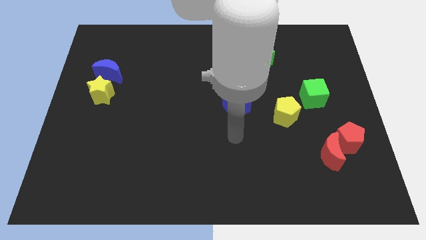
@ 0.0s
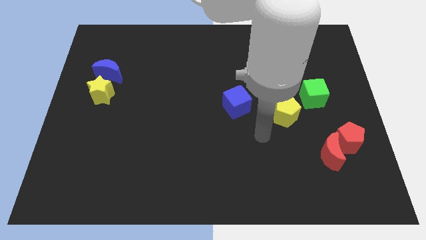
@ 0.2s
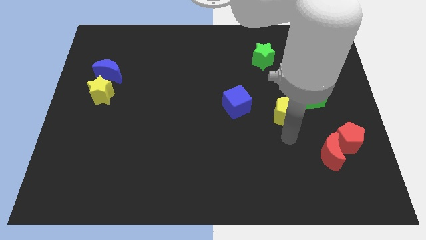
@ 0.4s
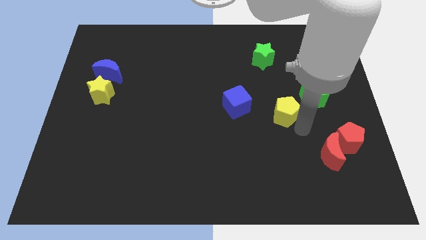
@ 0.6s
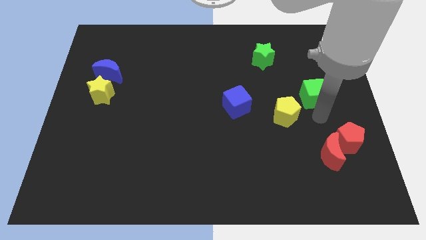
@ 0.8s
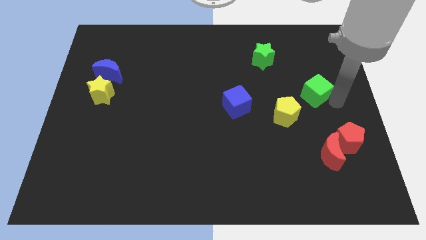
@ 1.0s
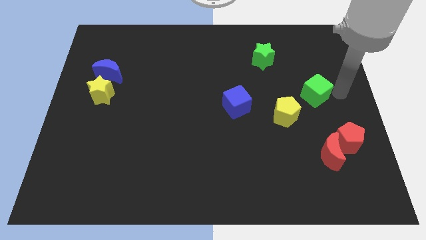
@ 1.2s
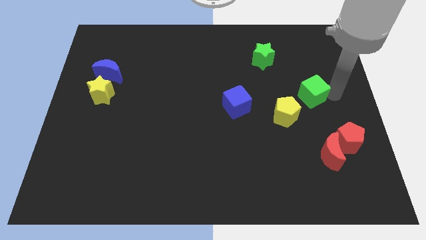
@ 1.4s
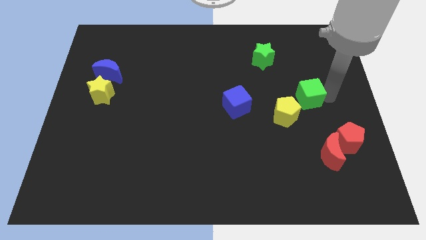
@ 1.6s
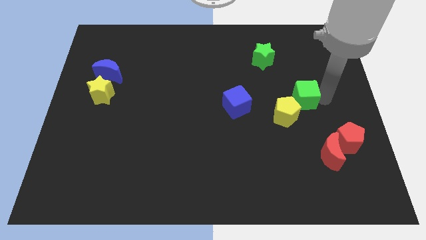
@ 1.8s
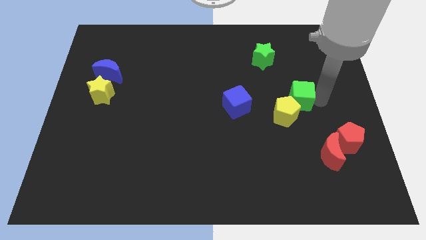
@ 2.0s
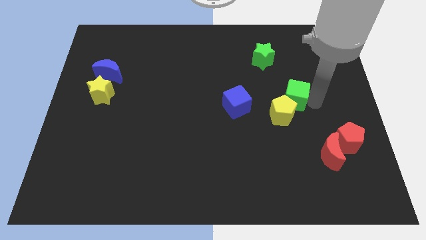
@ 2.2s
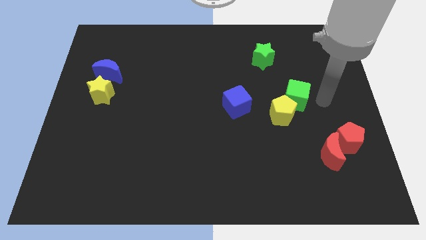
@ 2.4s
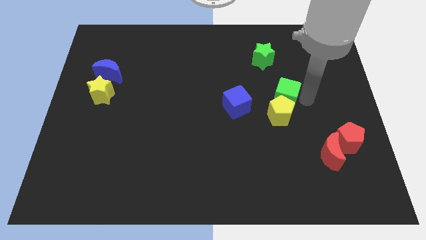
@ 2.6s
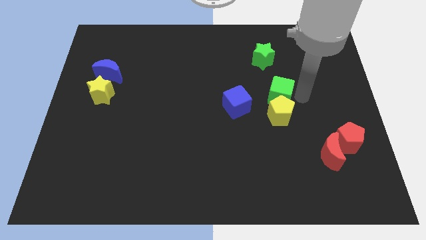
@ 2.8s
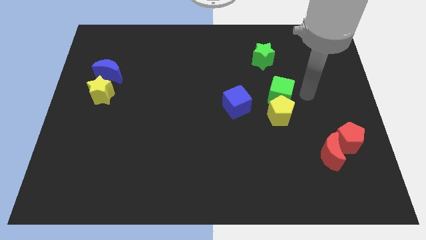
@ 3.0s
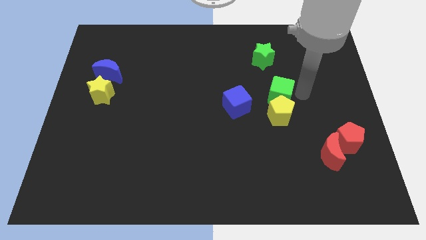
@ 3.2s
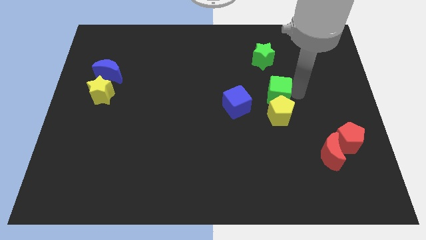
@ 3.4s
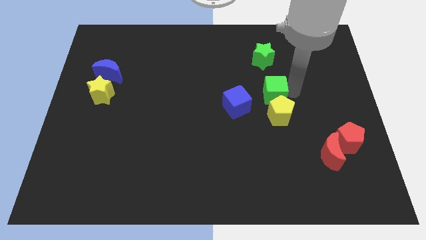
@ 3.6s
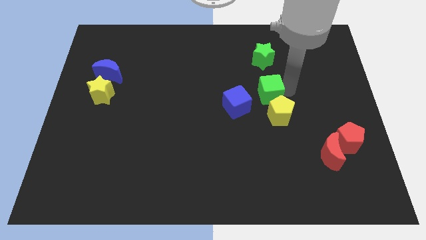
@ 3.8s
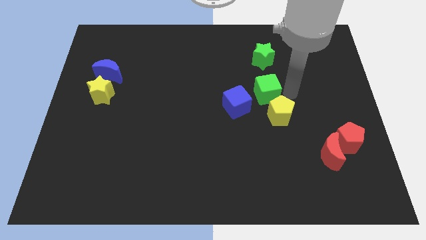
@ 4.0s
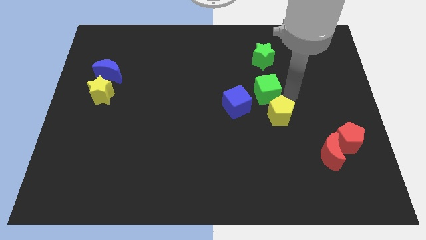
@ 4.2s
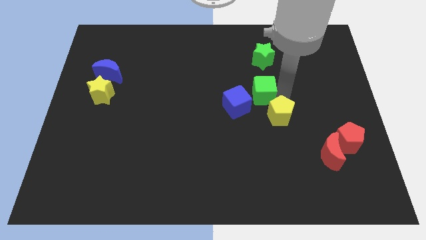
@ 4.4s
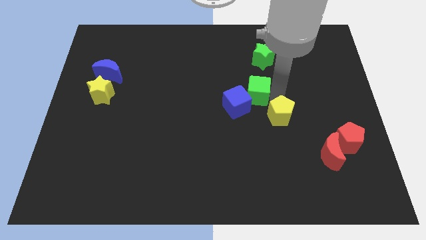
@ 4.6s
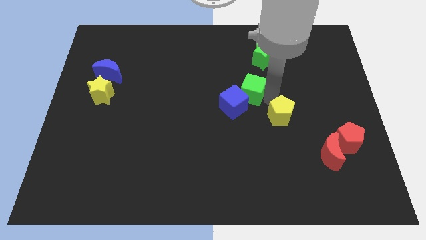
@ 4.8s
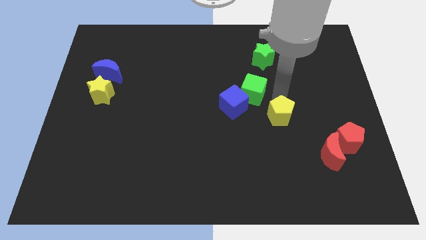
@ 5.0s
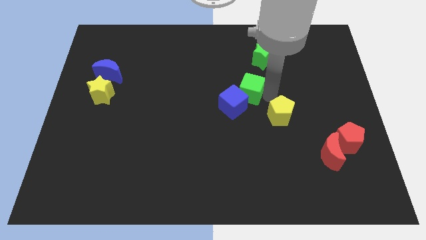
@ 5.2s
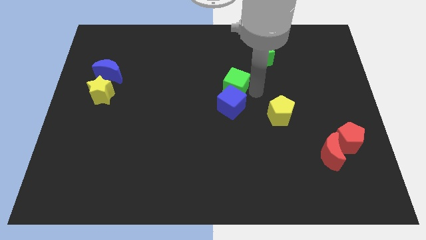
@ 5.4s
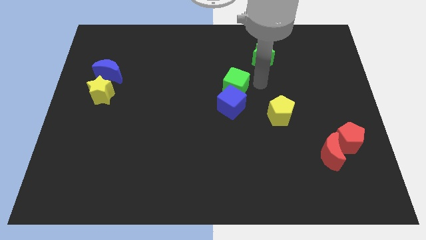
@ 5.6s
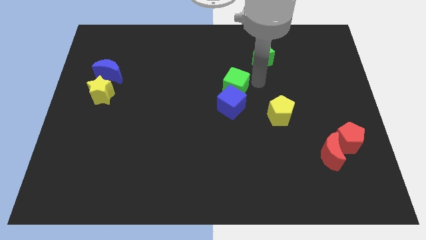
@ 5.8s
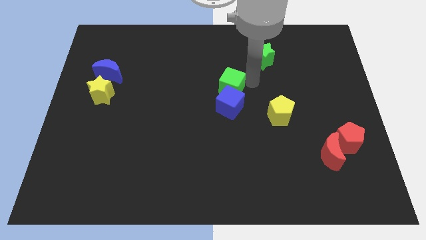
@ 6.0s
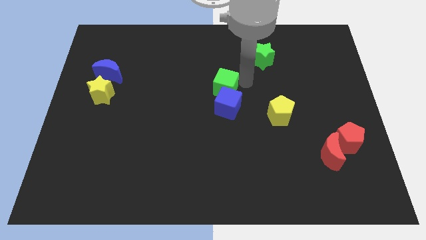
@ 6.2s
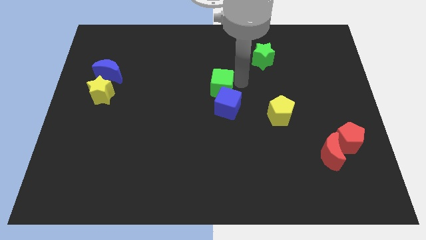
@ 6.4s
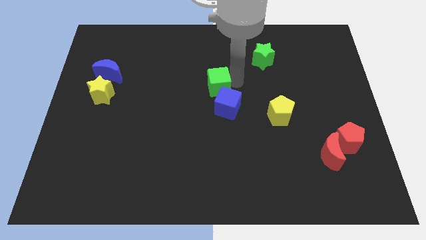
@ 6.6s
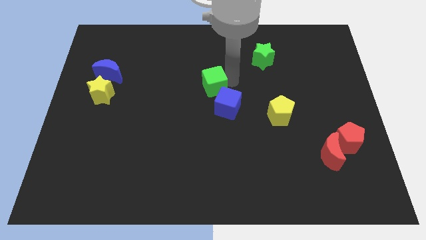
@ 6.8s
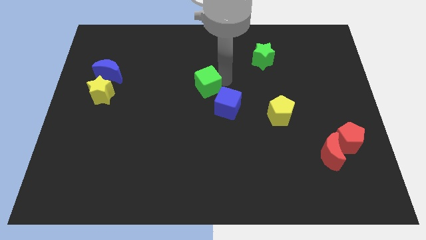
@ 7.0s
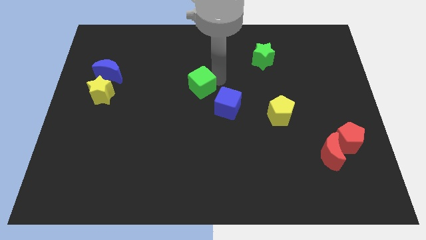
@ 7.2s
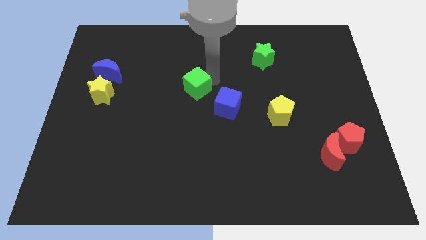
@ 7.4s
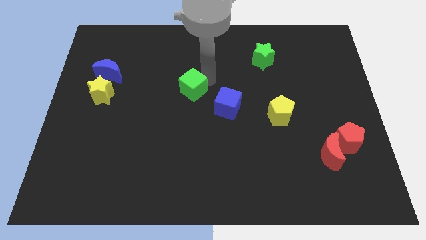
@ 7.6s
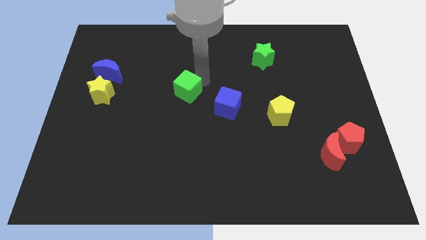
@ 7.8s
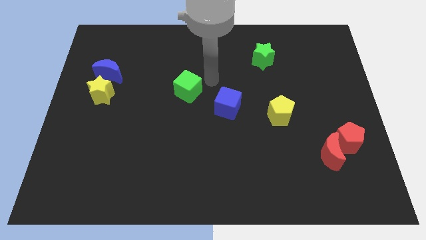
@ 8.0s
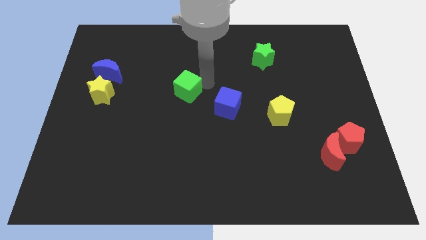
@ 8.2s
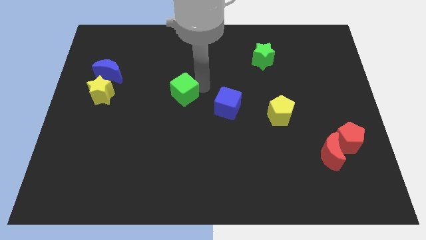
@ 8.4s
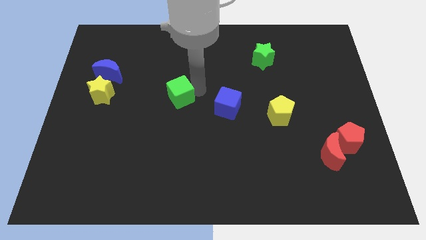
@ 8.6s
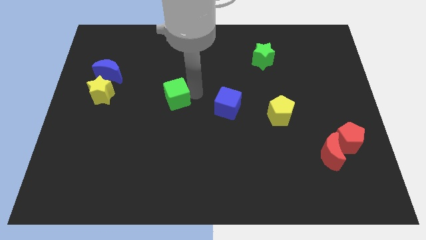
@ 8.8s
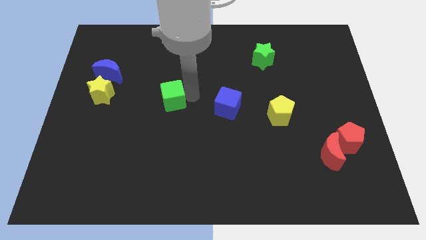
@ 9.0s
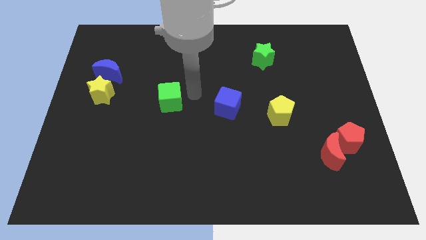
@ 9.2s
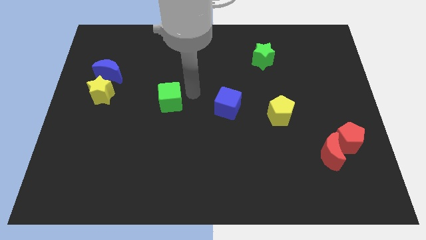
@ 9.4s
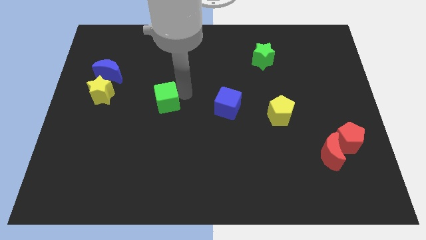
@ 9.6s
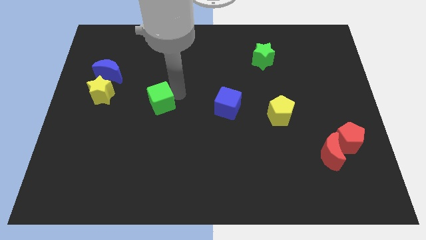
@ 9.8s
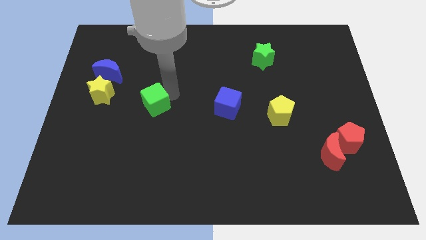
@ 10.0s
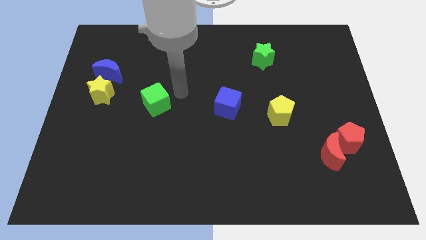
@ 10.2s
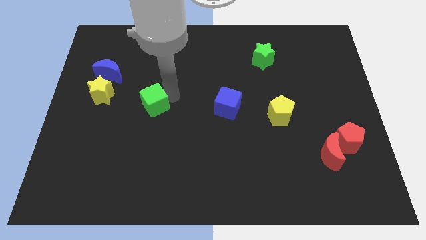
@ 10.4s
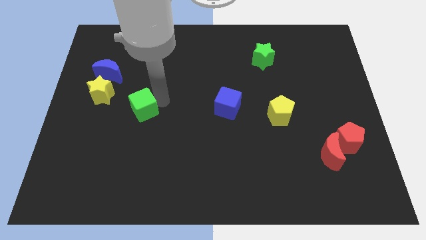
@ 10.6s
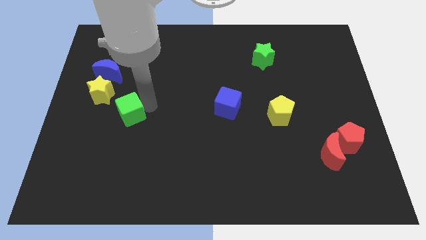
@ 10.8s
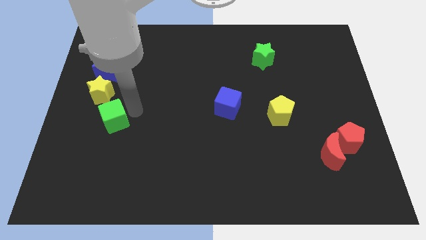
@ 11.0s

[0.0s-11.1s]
push the green cube to the bottom side of the yellow star

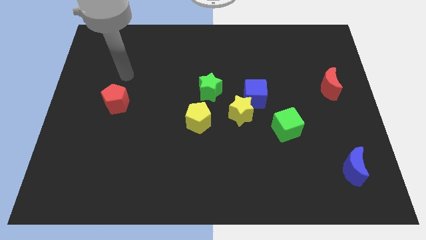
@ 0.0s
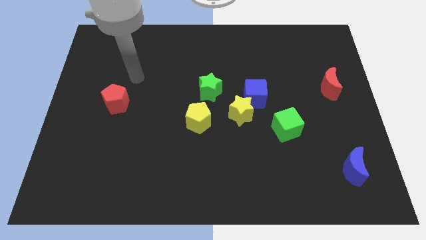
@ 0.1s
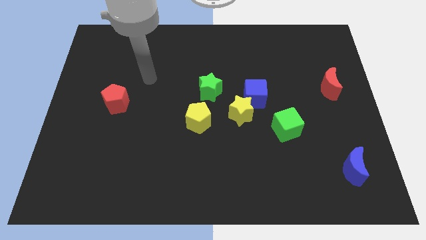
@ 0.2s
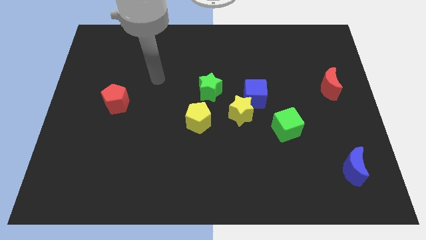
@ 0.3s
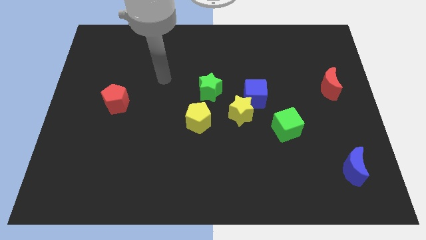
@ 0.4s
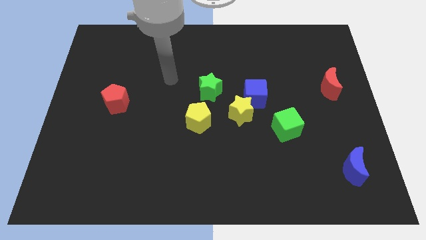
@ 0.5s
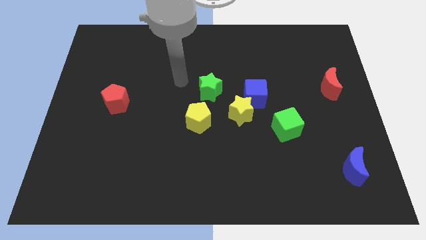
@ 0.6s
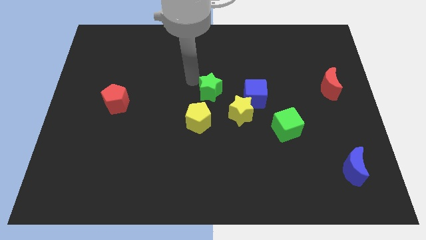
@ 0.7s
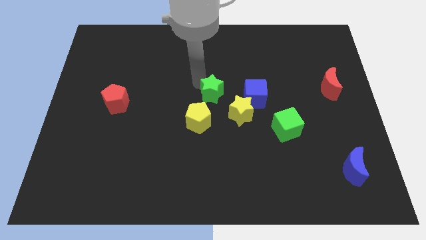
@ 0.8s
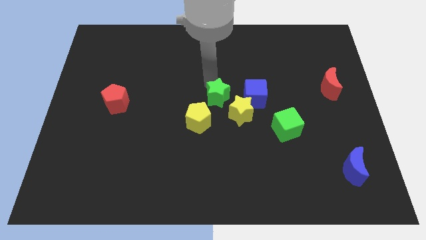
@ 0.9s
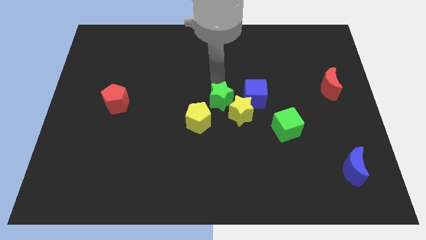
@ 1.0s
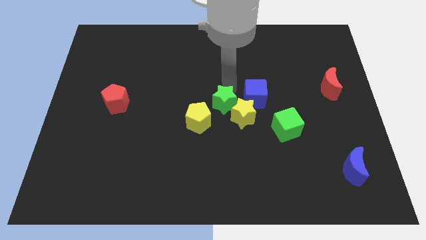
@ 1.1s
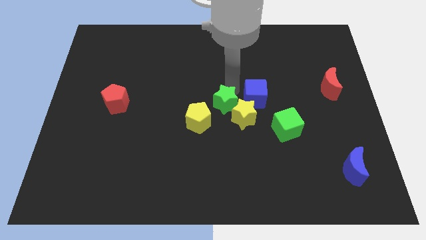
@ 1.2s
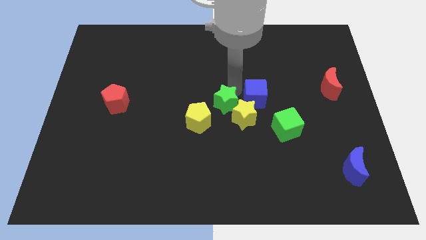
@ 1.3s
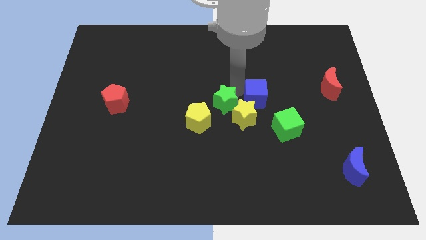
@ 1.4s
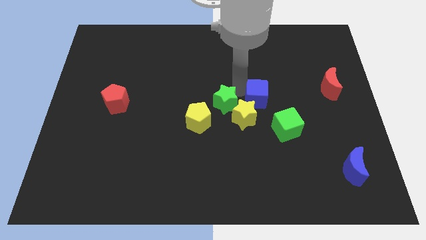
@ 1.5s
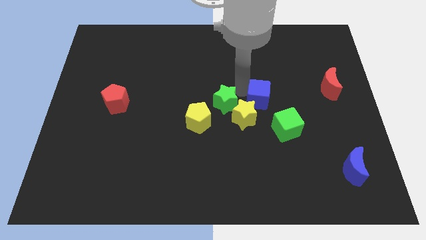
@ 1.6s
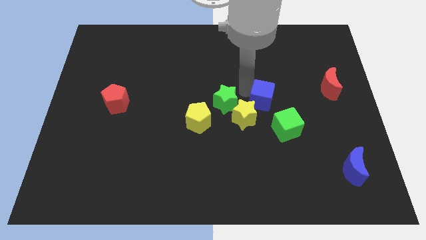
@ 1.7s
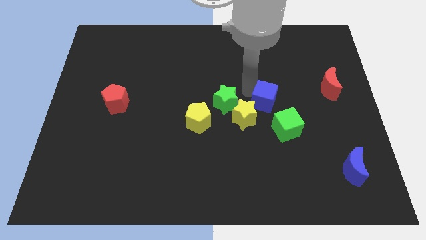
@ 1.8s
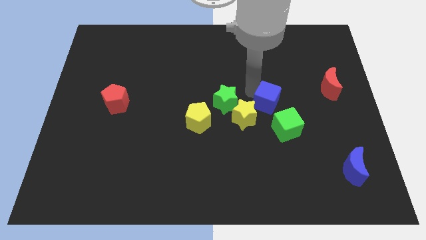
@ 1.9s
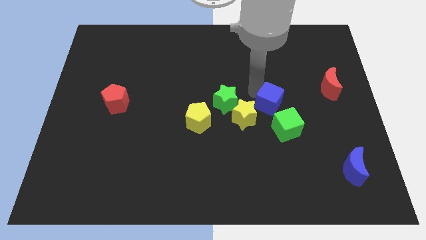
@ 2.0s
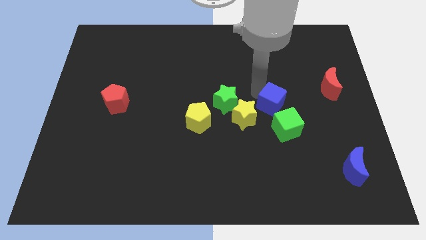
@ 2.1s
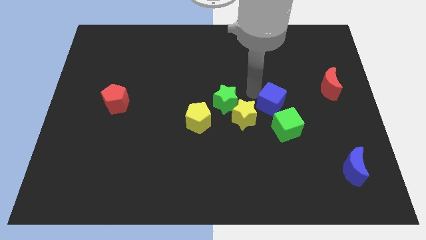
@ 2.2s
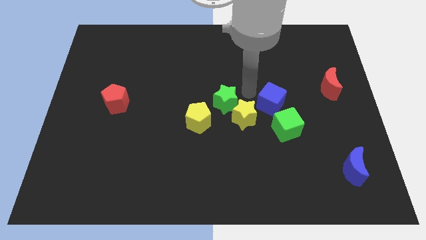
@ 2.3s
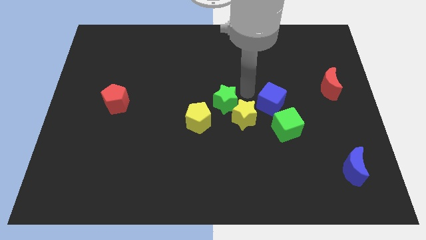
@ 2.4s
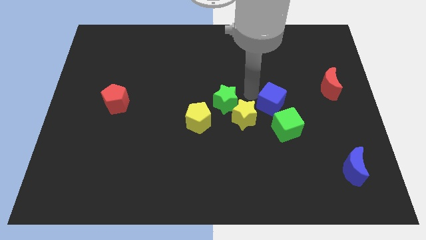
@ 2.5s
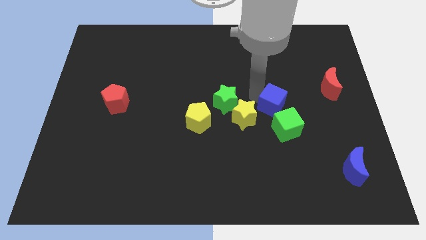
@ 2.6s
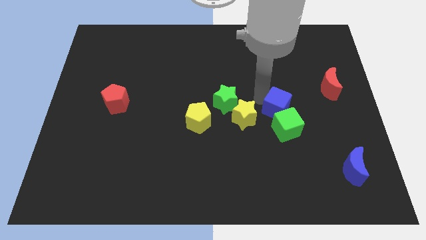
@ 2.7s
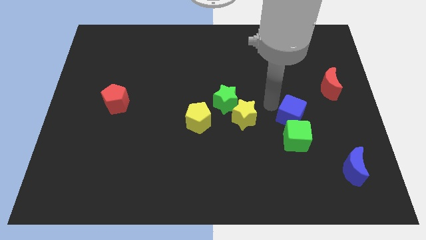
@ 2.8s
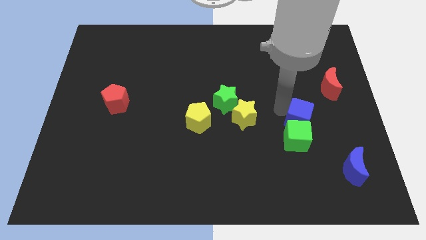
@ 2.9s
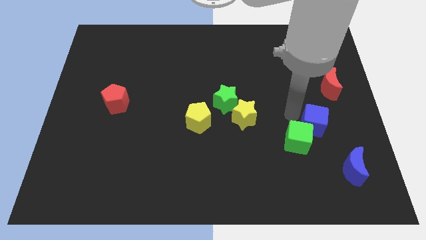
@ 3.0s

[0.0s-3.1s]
slide the blue cube to the right of the green cube
